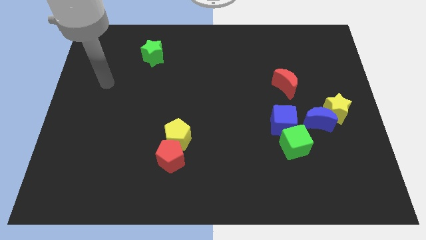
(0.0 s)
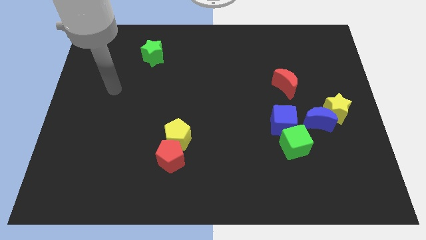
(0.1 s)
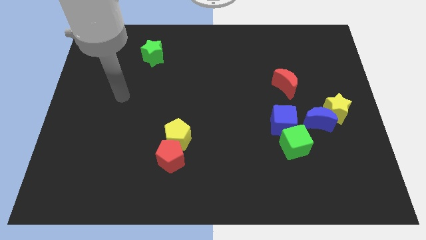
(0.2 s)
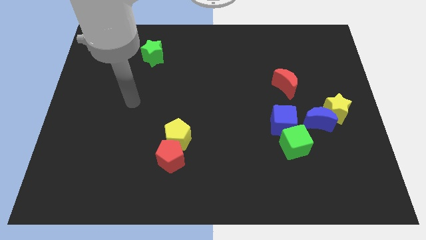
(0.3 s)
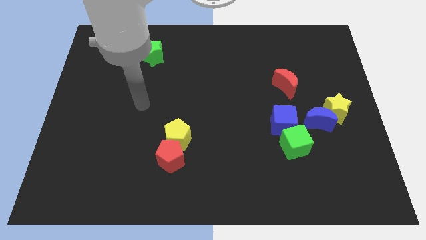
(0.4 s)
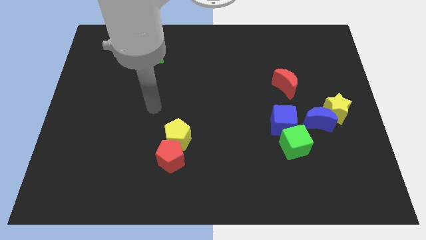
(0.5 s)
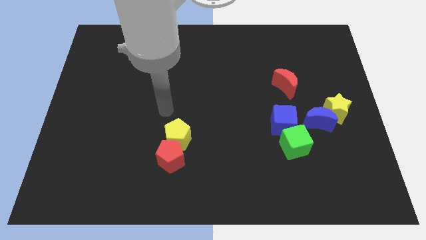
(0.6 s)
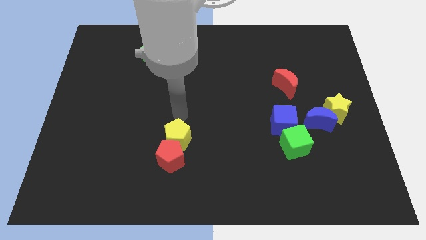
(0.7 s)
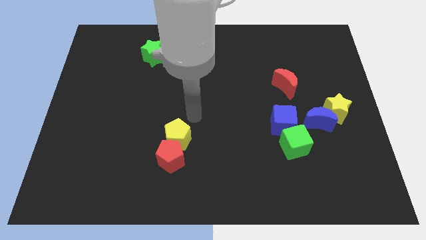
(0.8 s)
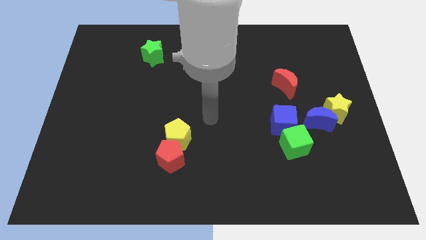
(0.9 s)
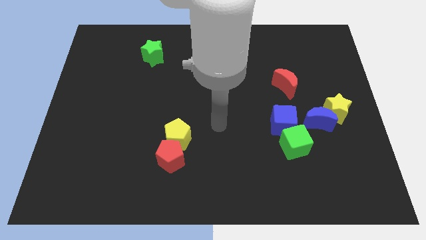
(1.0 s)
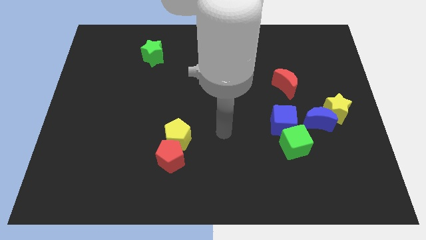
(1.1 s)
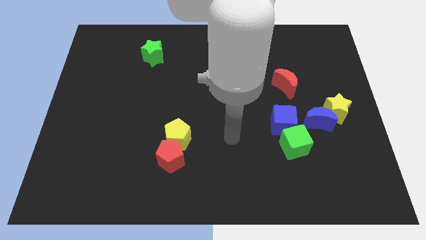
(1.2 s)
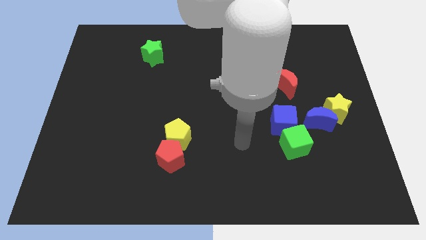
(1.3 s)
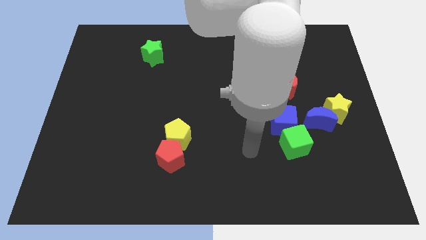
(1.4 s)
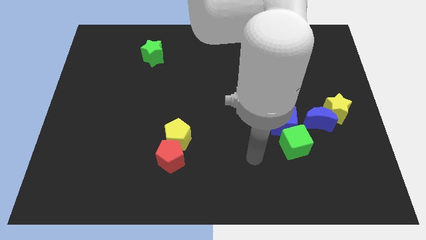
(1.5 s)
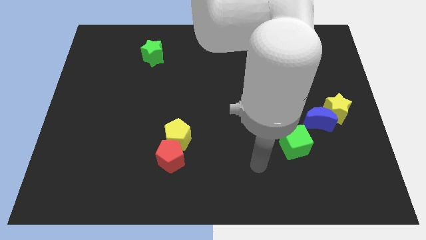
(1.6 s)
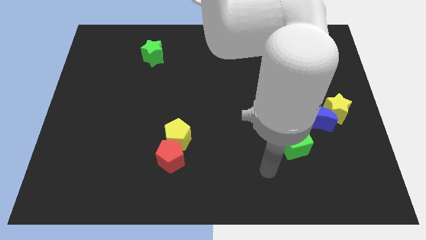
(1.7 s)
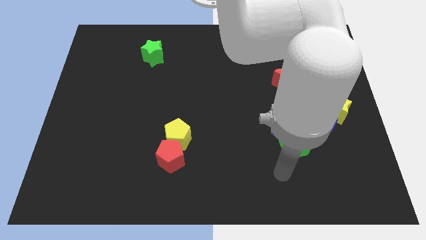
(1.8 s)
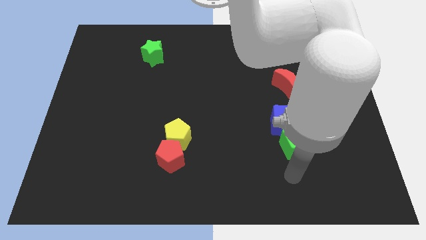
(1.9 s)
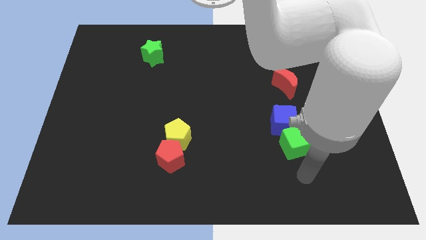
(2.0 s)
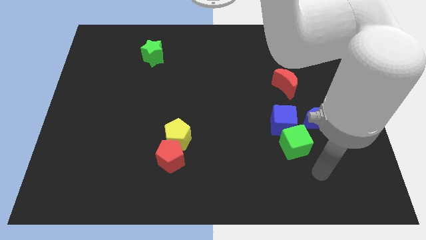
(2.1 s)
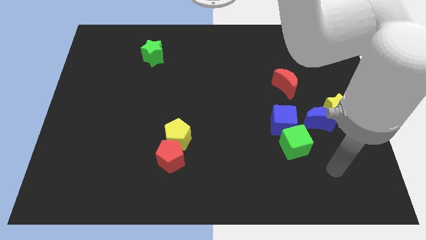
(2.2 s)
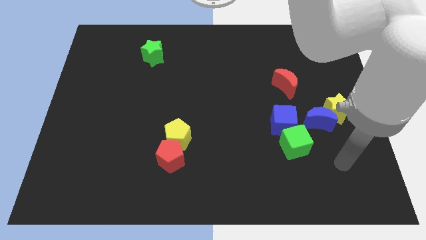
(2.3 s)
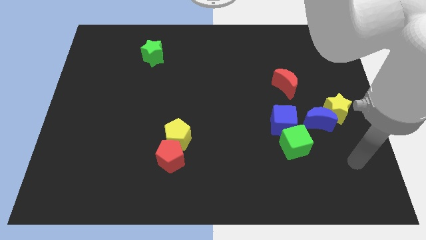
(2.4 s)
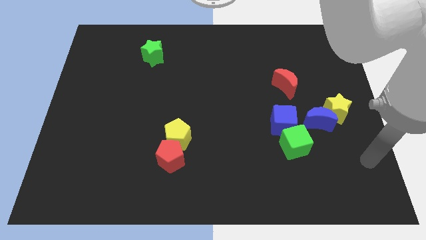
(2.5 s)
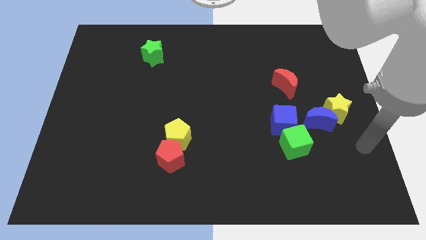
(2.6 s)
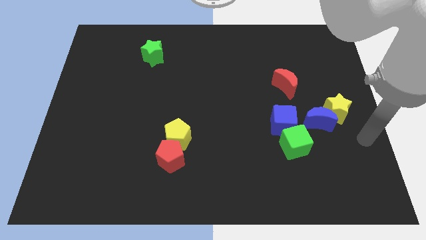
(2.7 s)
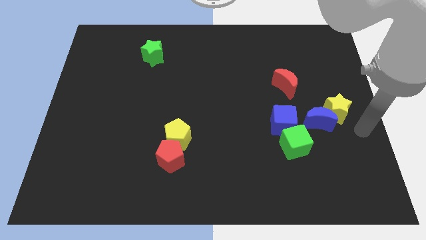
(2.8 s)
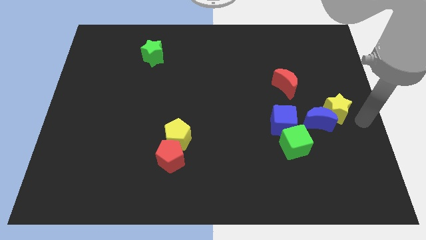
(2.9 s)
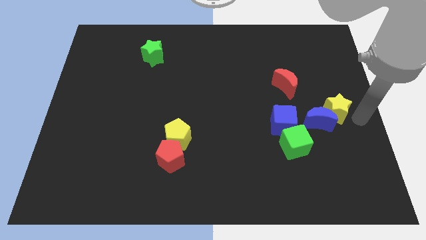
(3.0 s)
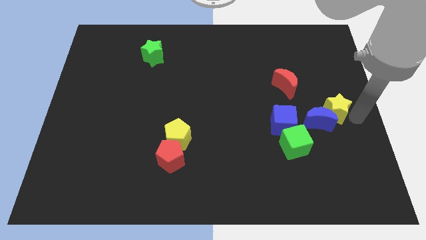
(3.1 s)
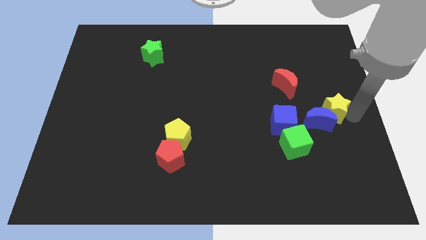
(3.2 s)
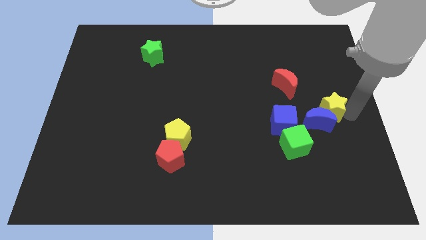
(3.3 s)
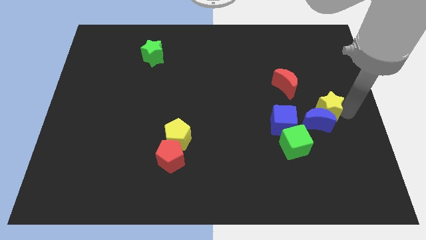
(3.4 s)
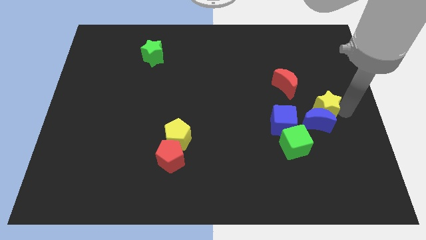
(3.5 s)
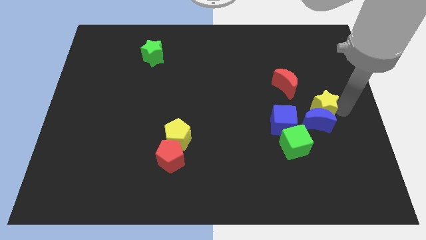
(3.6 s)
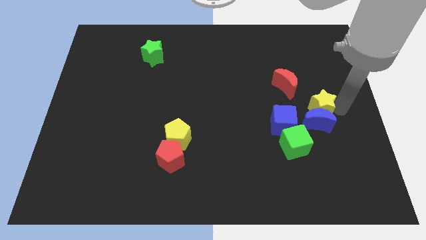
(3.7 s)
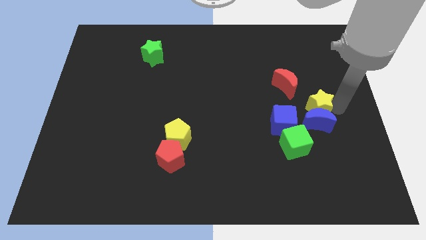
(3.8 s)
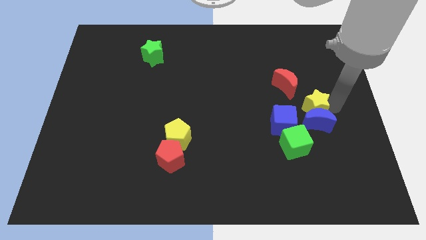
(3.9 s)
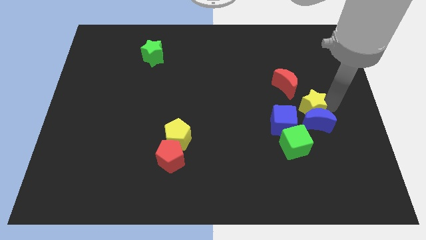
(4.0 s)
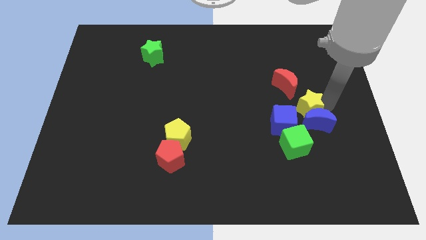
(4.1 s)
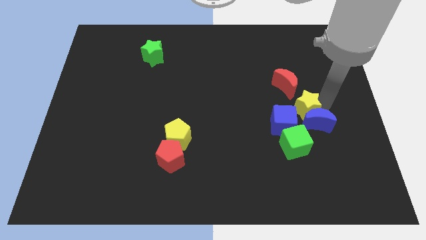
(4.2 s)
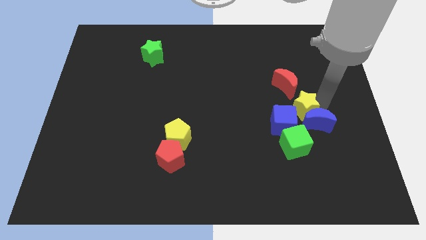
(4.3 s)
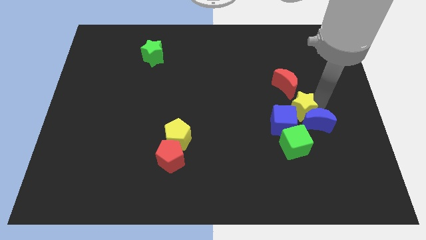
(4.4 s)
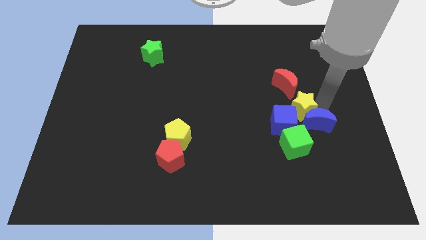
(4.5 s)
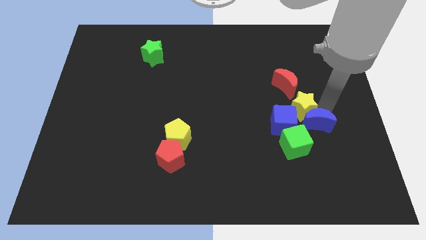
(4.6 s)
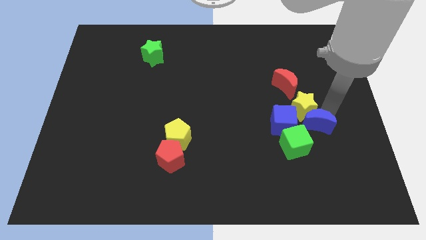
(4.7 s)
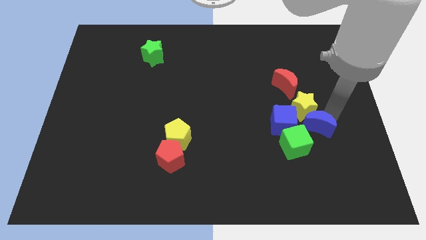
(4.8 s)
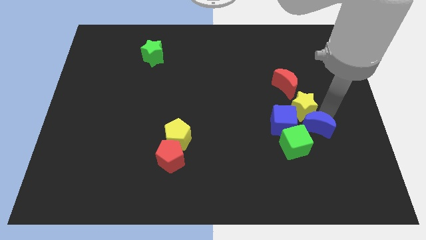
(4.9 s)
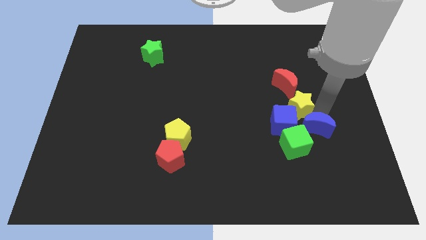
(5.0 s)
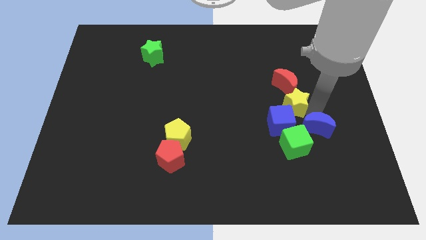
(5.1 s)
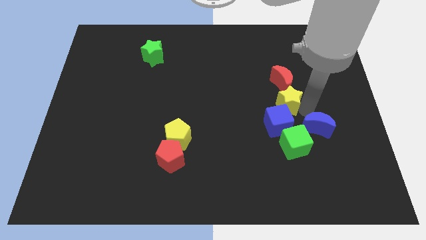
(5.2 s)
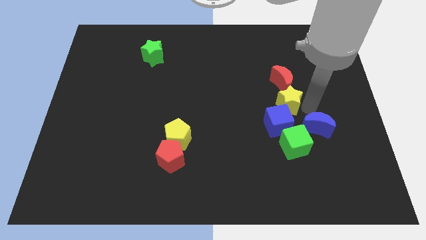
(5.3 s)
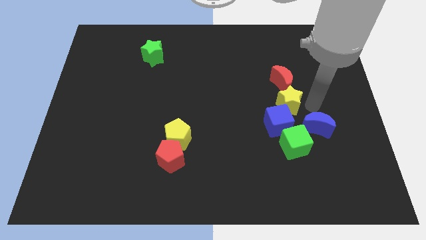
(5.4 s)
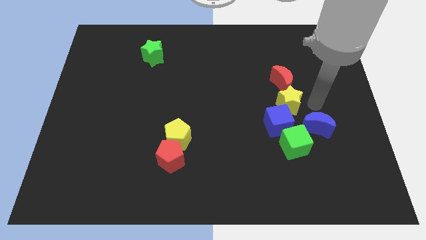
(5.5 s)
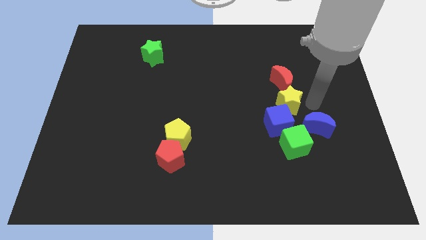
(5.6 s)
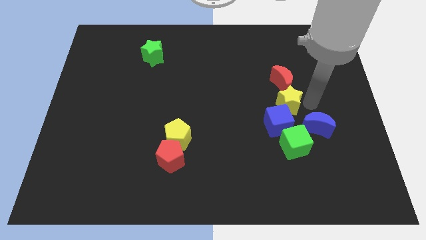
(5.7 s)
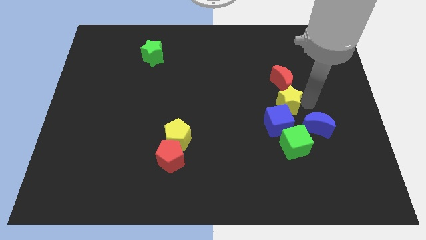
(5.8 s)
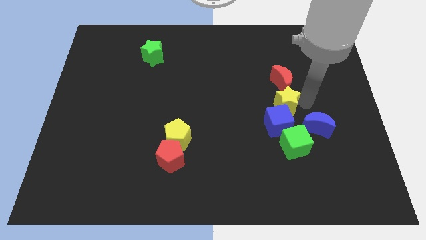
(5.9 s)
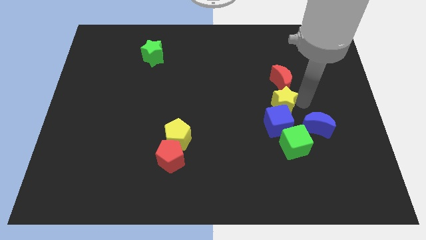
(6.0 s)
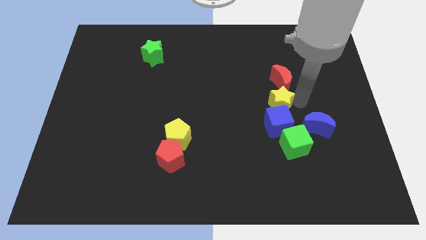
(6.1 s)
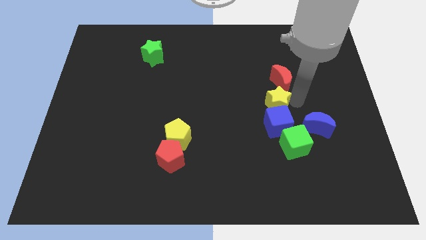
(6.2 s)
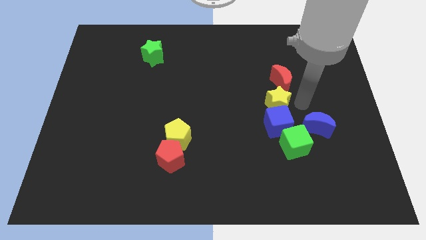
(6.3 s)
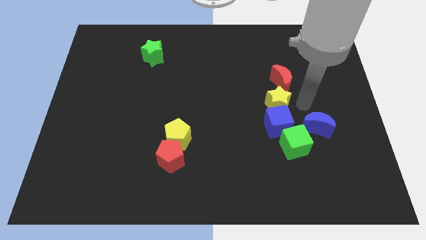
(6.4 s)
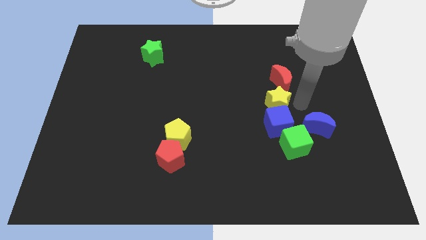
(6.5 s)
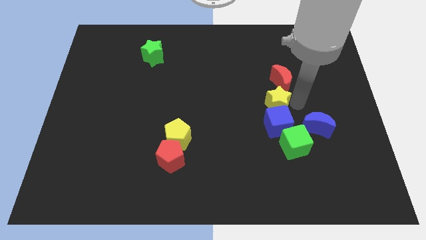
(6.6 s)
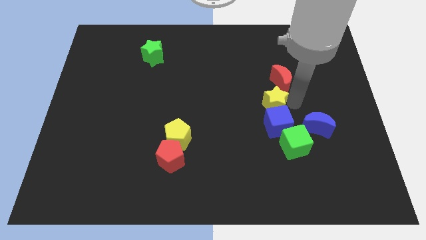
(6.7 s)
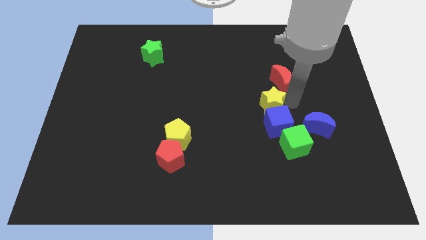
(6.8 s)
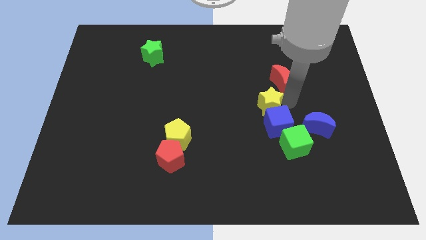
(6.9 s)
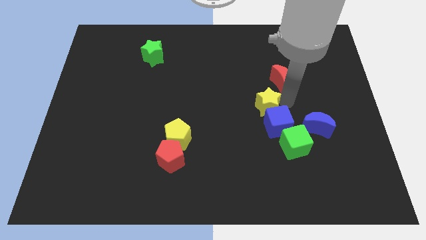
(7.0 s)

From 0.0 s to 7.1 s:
put the yellow star to the center of the board
